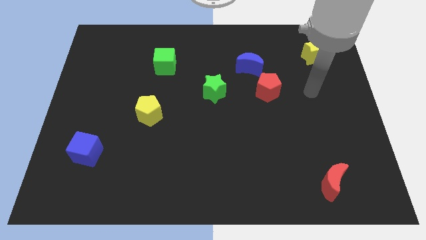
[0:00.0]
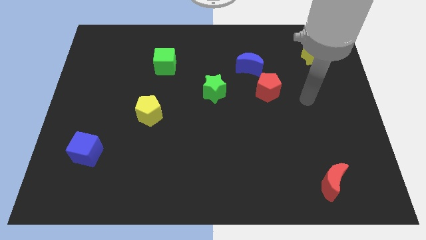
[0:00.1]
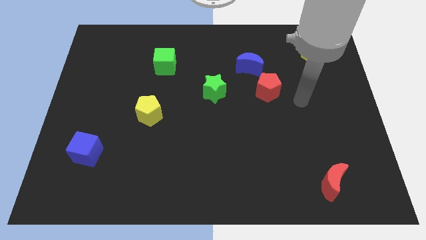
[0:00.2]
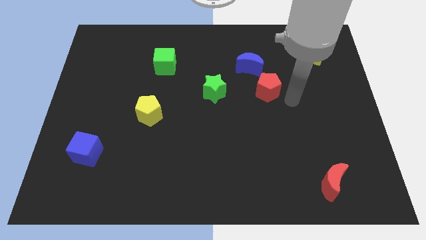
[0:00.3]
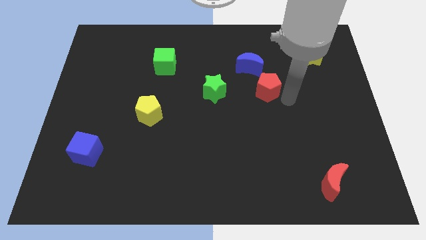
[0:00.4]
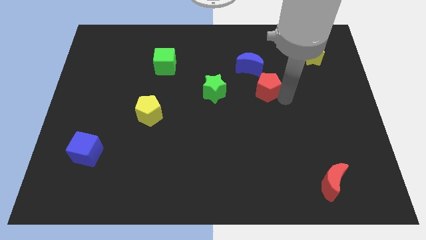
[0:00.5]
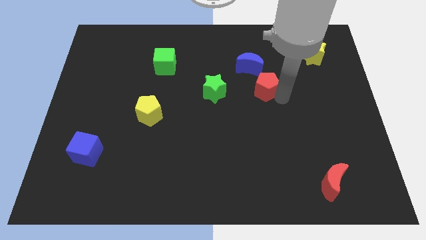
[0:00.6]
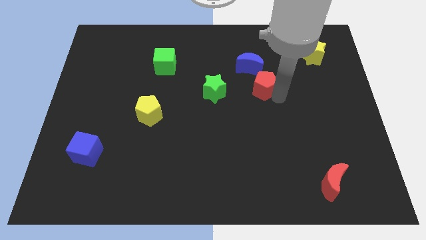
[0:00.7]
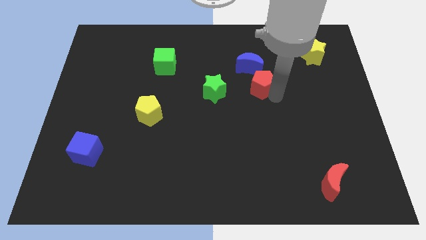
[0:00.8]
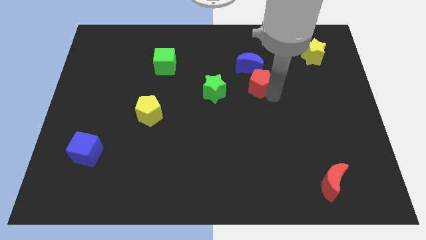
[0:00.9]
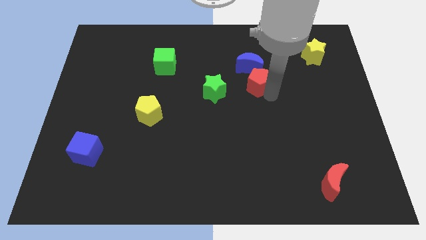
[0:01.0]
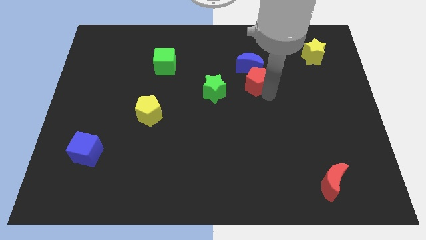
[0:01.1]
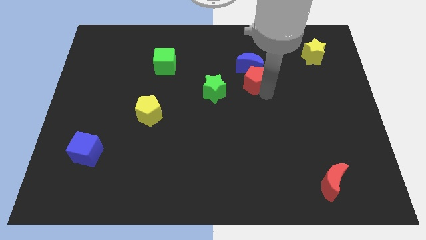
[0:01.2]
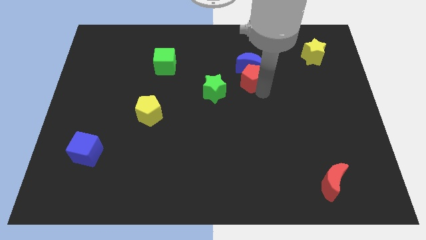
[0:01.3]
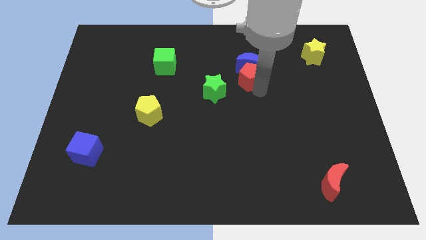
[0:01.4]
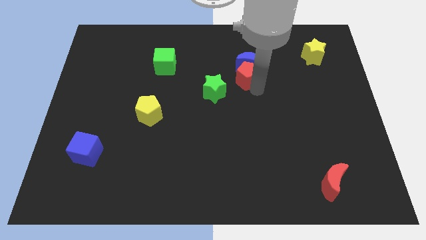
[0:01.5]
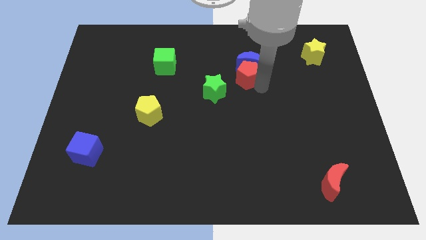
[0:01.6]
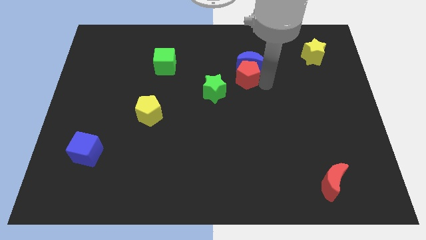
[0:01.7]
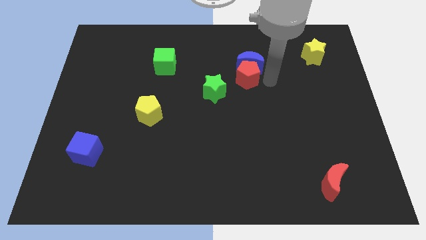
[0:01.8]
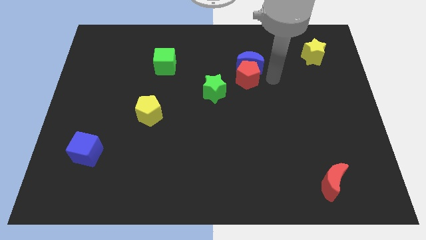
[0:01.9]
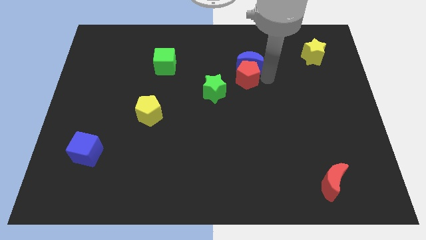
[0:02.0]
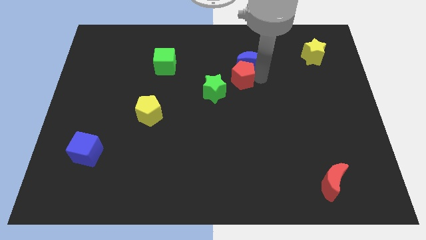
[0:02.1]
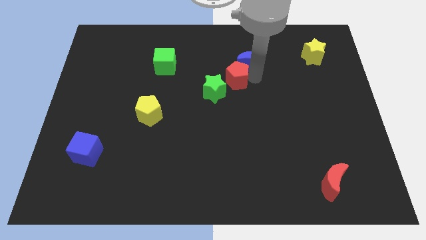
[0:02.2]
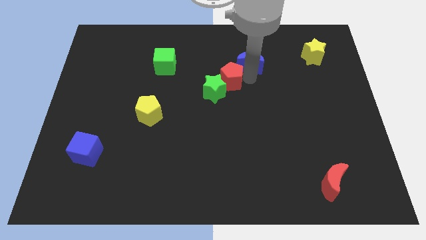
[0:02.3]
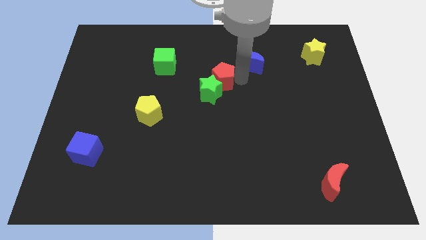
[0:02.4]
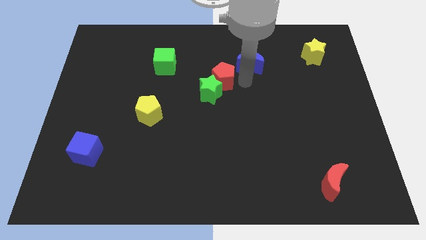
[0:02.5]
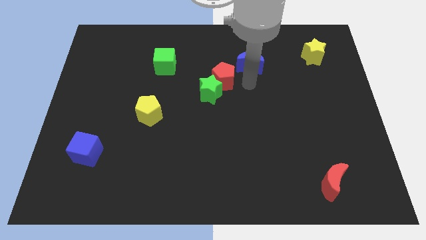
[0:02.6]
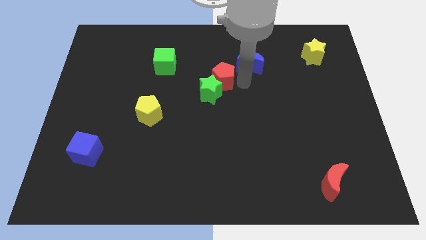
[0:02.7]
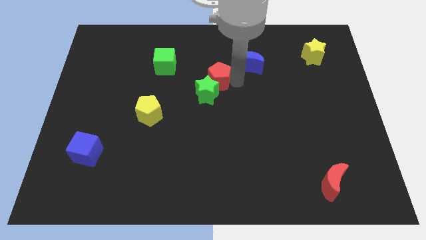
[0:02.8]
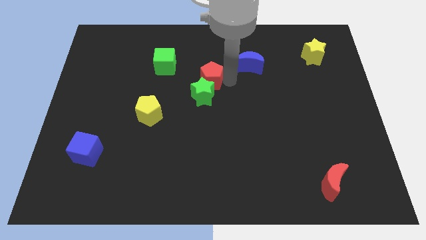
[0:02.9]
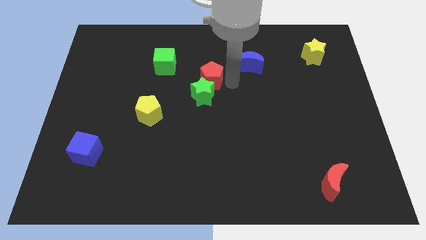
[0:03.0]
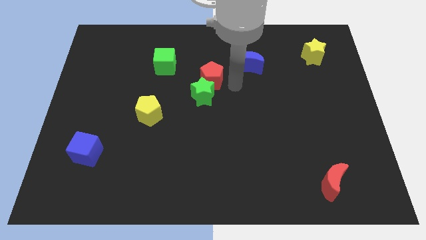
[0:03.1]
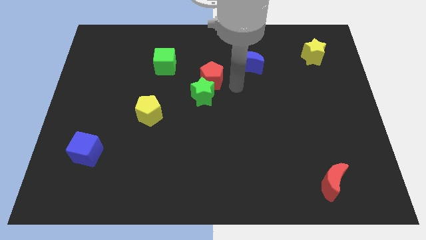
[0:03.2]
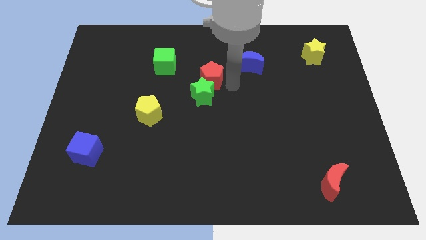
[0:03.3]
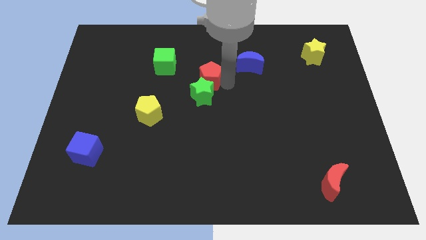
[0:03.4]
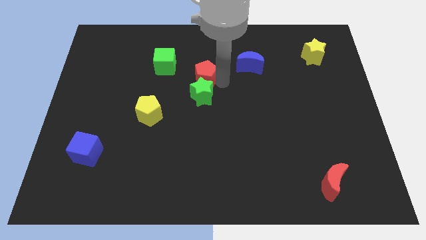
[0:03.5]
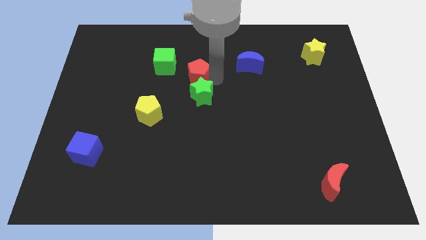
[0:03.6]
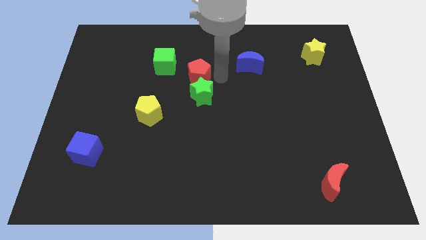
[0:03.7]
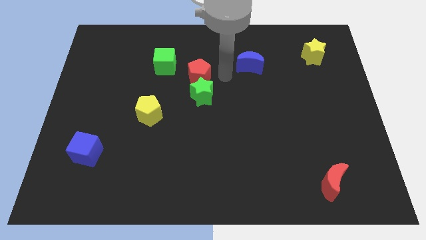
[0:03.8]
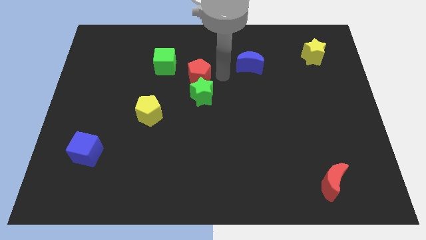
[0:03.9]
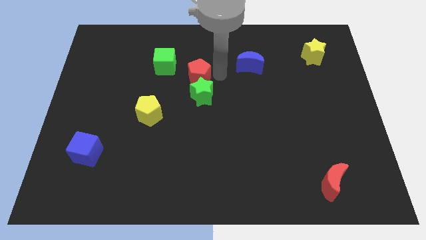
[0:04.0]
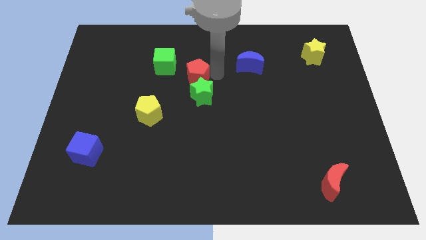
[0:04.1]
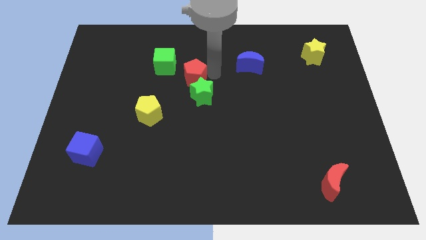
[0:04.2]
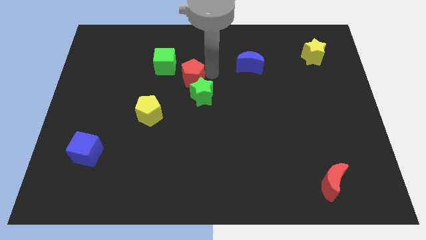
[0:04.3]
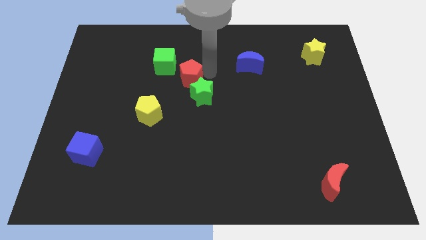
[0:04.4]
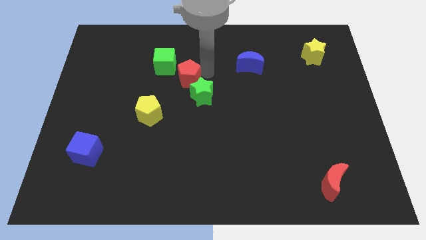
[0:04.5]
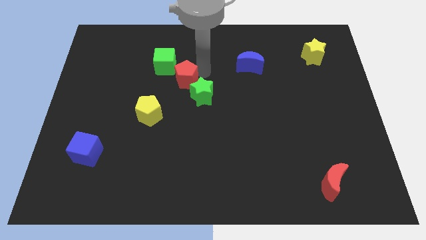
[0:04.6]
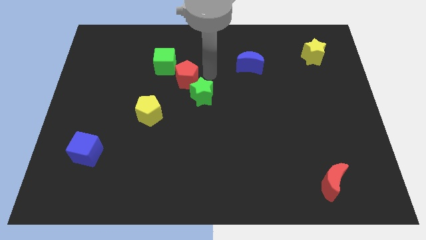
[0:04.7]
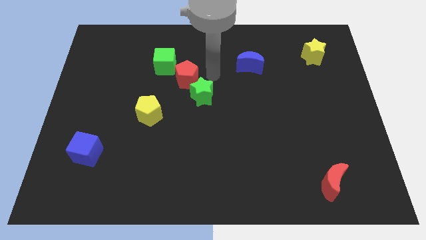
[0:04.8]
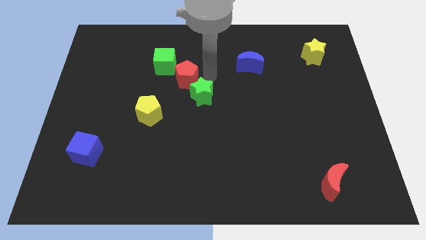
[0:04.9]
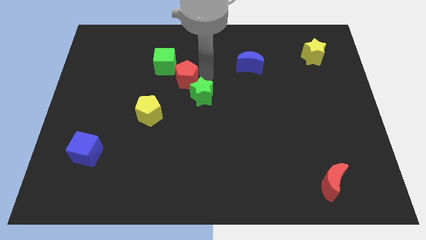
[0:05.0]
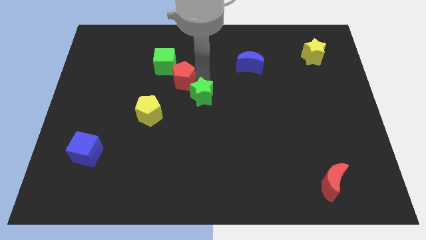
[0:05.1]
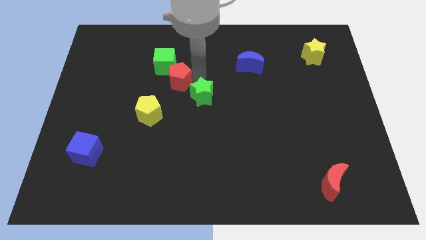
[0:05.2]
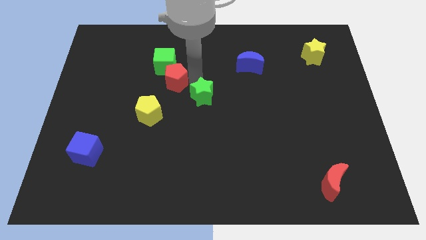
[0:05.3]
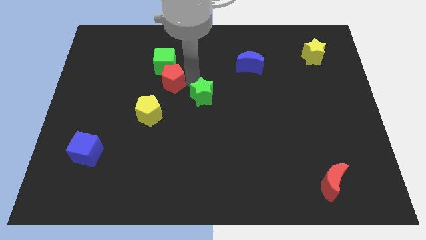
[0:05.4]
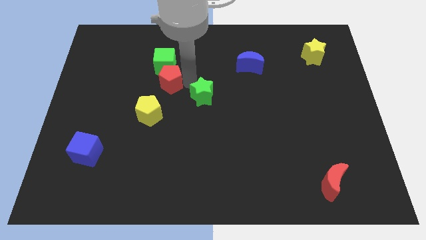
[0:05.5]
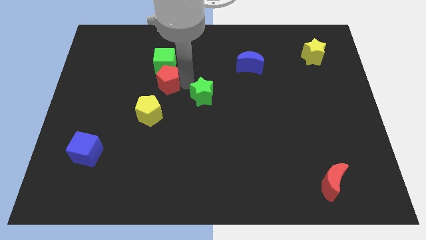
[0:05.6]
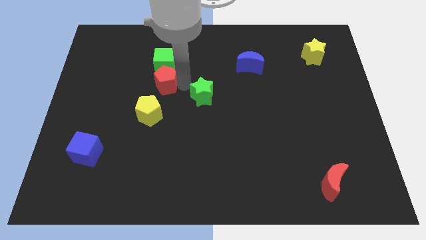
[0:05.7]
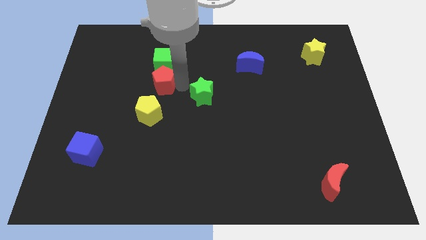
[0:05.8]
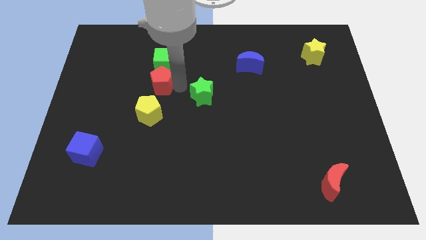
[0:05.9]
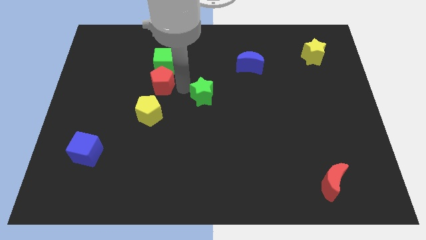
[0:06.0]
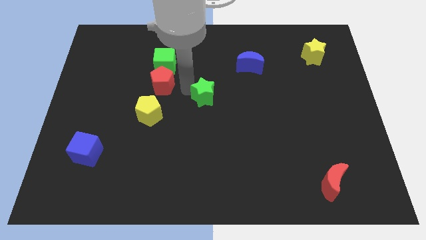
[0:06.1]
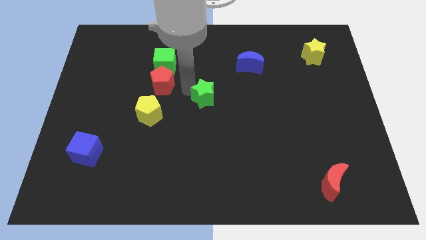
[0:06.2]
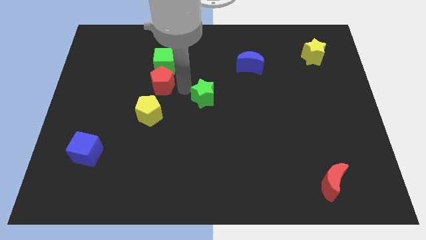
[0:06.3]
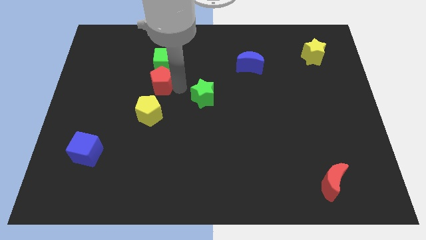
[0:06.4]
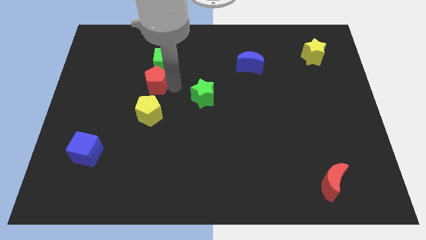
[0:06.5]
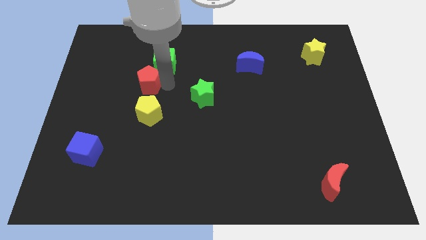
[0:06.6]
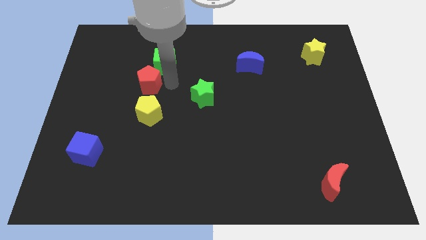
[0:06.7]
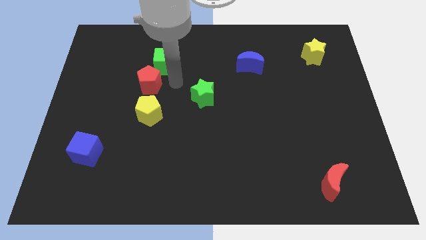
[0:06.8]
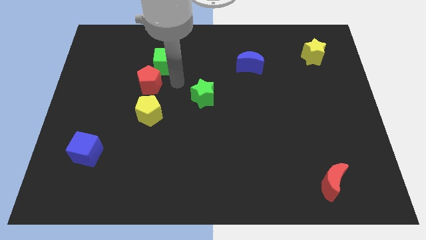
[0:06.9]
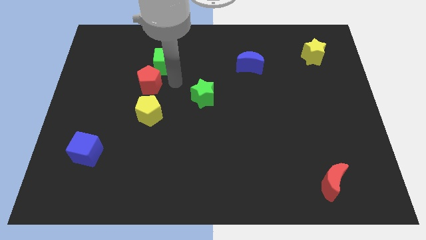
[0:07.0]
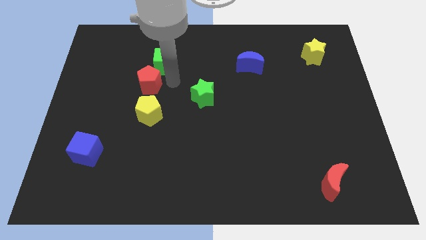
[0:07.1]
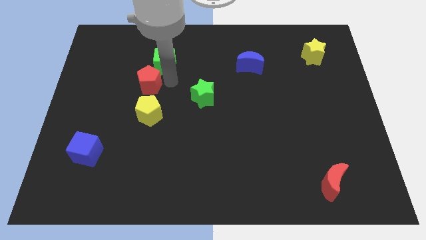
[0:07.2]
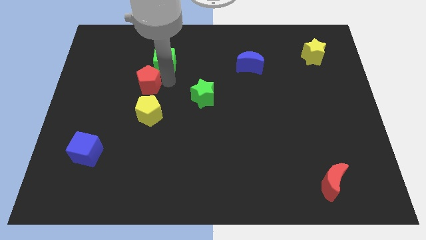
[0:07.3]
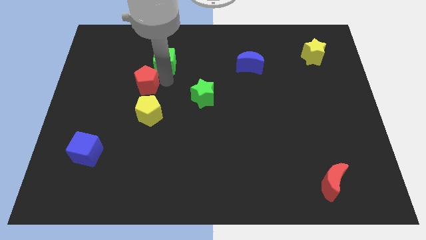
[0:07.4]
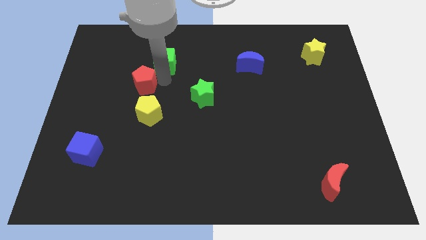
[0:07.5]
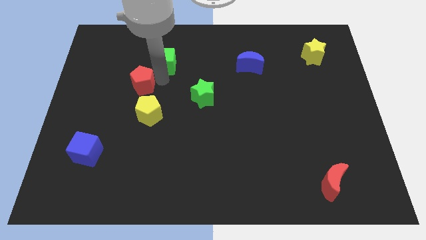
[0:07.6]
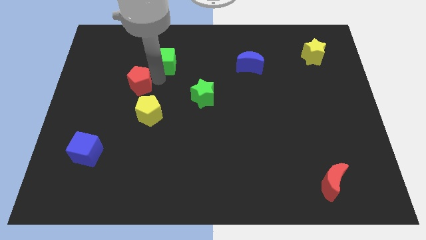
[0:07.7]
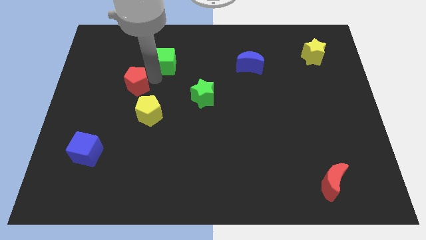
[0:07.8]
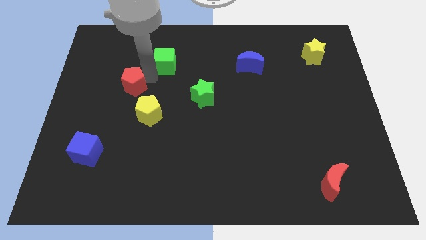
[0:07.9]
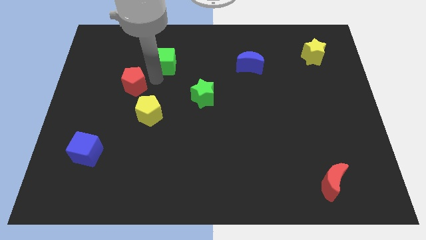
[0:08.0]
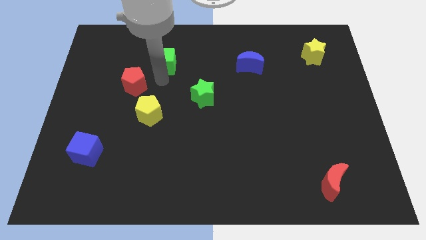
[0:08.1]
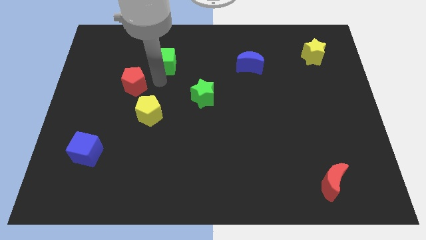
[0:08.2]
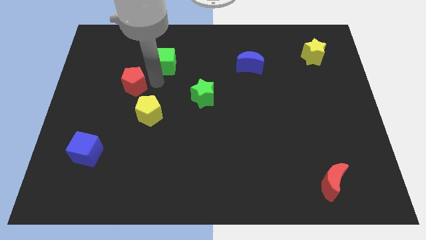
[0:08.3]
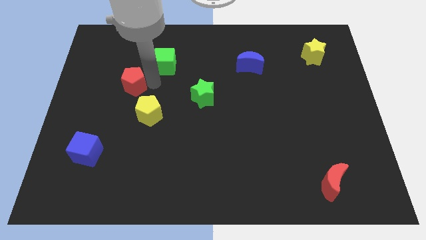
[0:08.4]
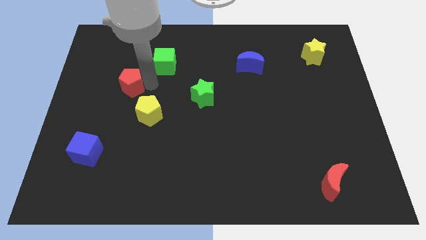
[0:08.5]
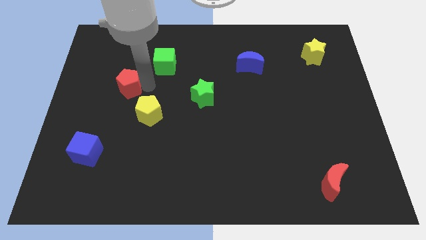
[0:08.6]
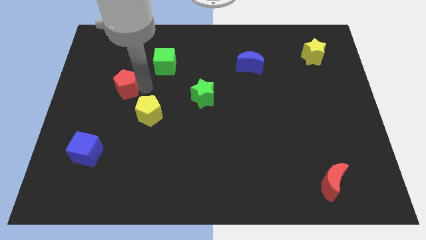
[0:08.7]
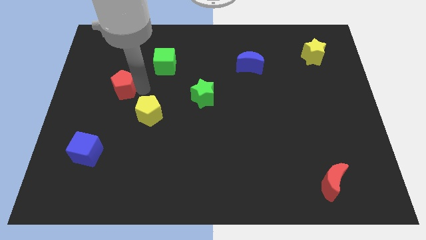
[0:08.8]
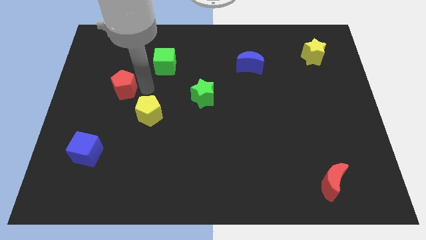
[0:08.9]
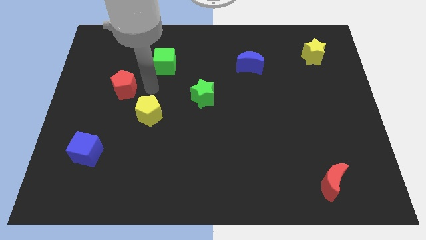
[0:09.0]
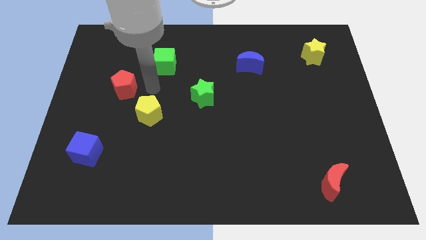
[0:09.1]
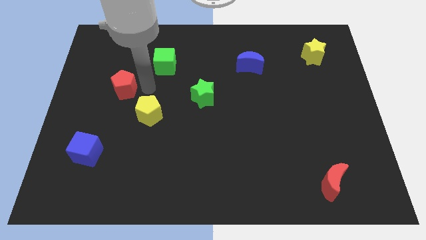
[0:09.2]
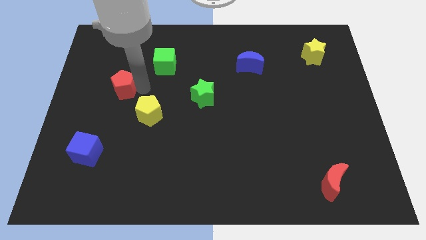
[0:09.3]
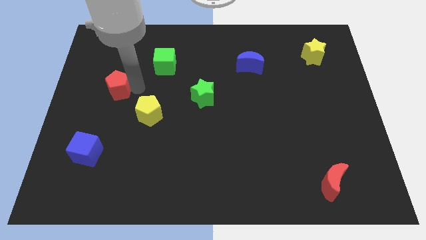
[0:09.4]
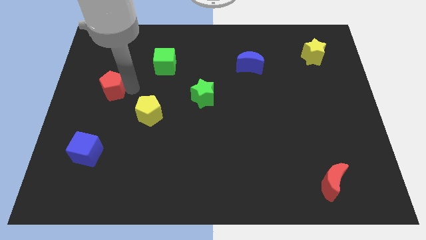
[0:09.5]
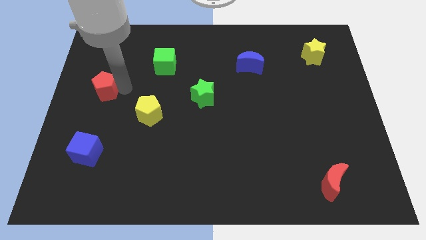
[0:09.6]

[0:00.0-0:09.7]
put the red pentagon to the left side of the board
